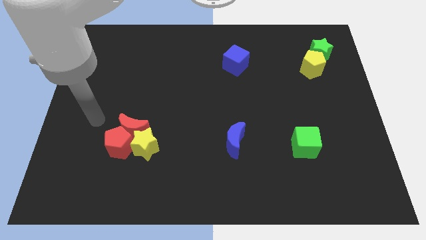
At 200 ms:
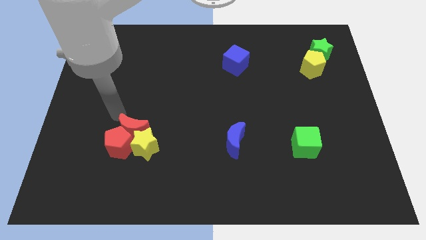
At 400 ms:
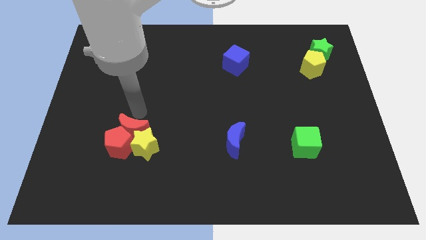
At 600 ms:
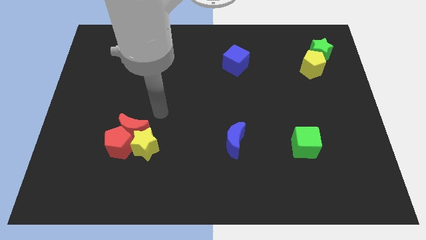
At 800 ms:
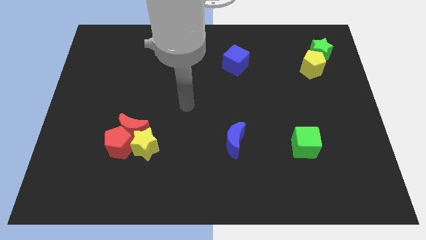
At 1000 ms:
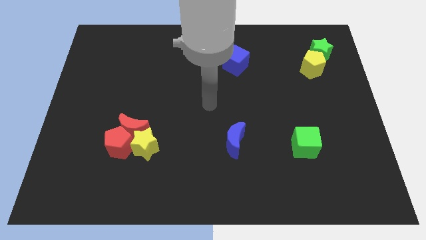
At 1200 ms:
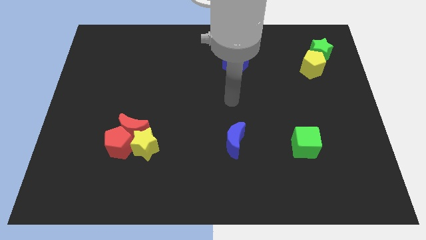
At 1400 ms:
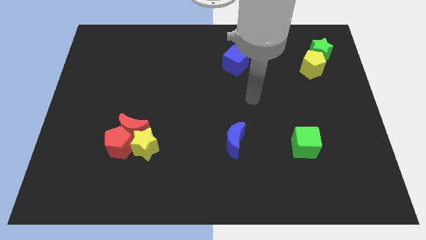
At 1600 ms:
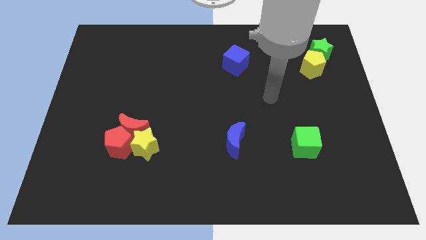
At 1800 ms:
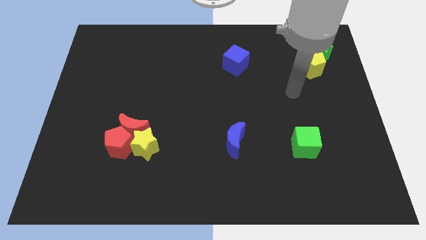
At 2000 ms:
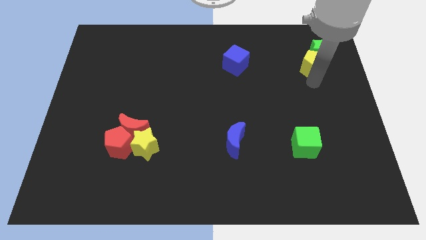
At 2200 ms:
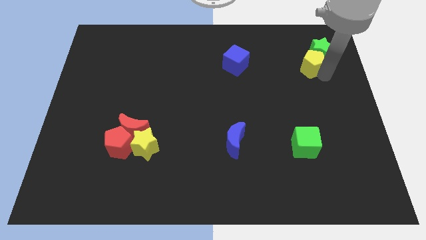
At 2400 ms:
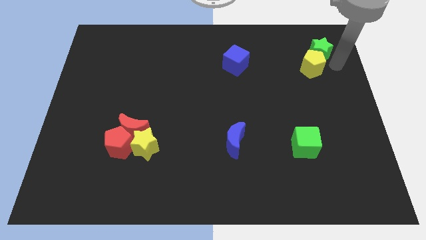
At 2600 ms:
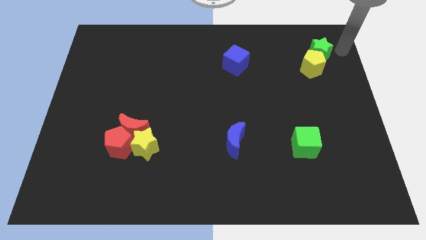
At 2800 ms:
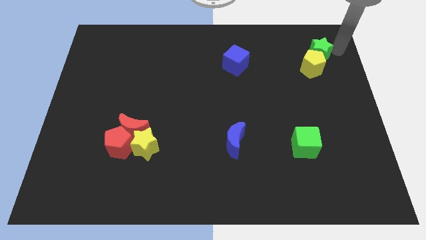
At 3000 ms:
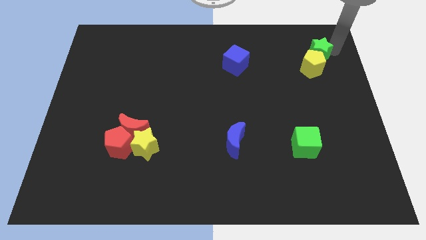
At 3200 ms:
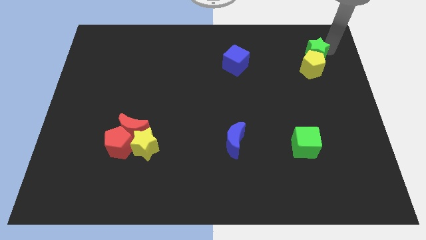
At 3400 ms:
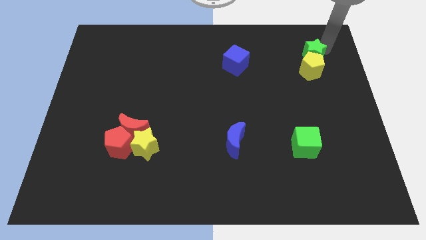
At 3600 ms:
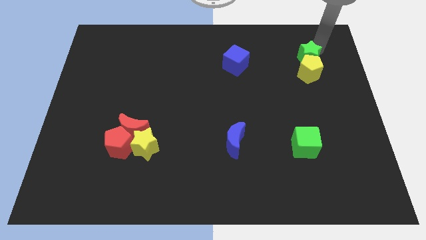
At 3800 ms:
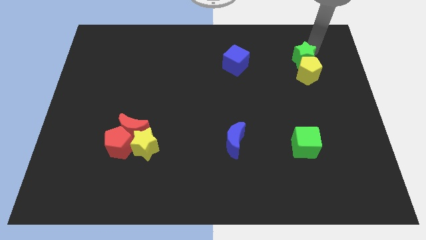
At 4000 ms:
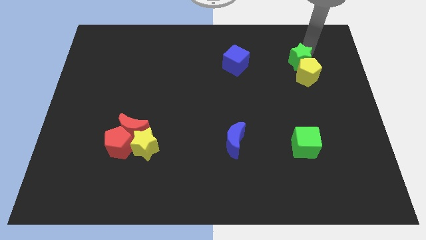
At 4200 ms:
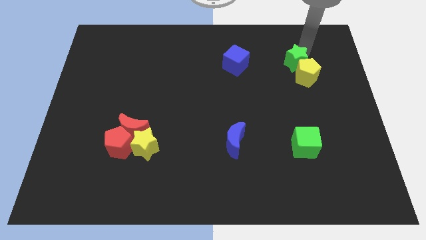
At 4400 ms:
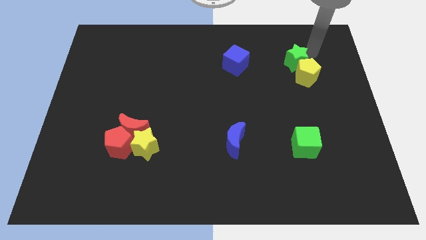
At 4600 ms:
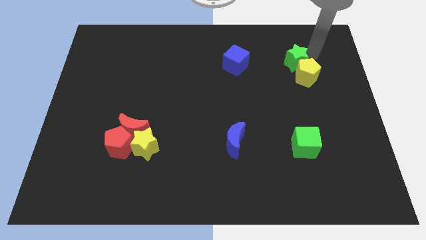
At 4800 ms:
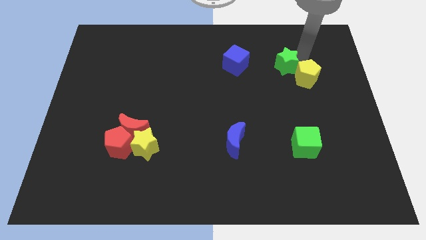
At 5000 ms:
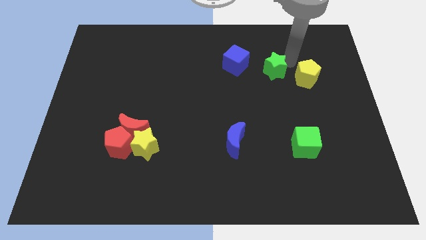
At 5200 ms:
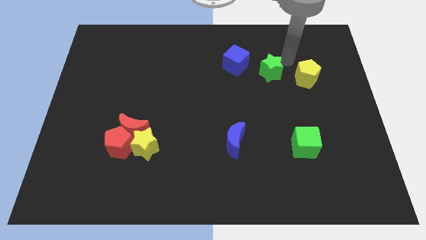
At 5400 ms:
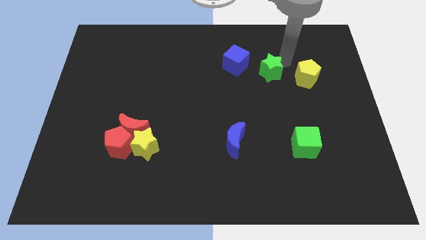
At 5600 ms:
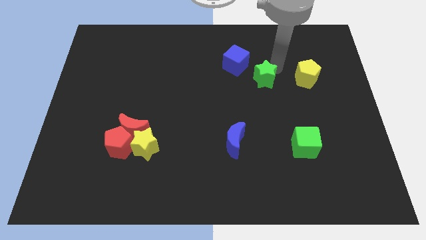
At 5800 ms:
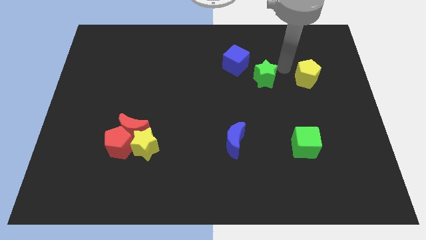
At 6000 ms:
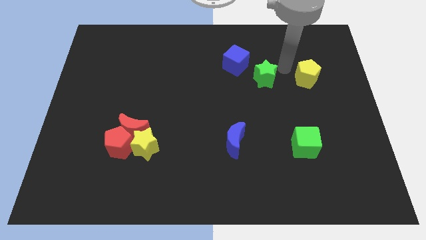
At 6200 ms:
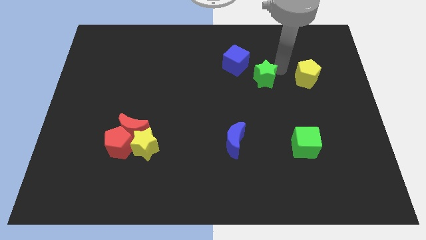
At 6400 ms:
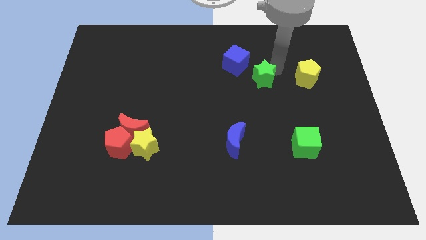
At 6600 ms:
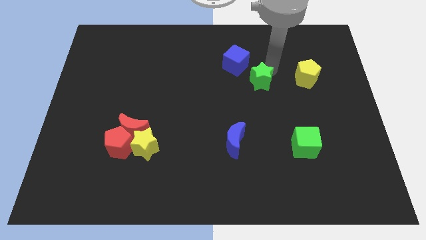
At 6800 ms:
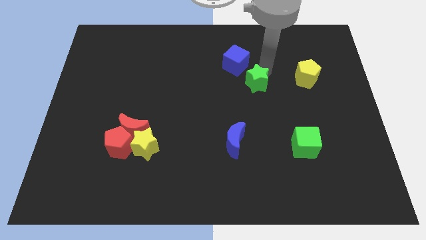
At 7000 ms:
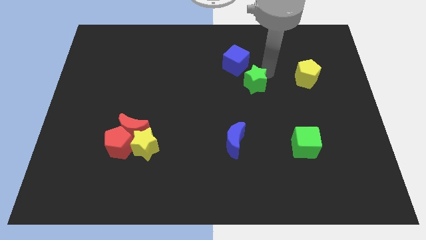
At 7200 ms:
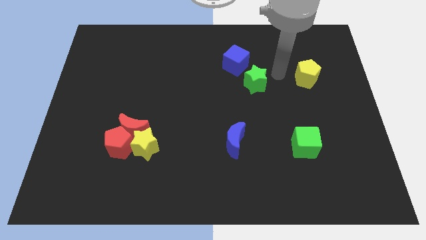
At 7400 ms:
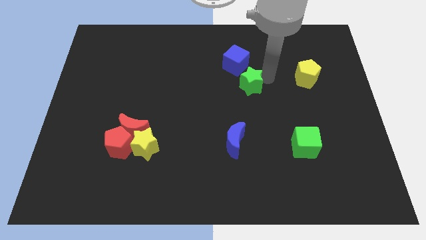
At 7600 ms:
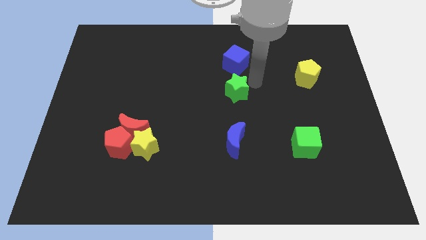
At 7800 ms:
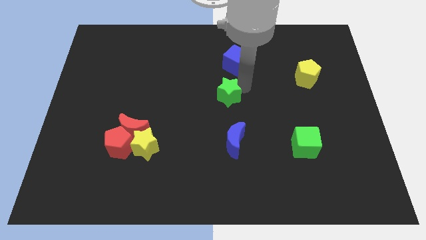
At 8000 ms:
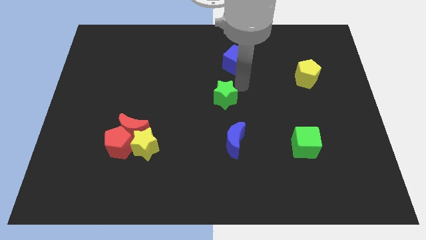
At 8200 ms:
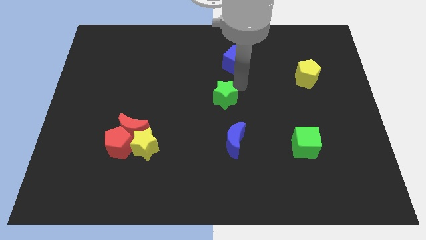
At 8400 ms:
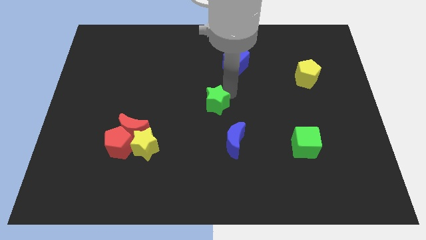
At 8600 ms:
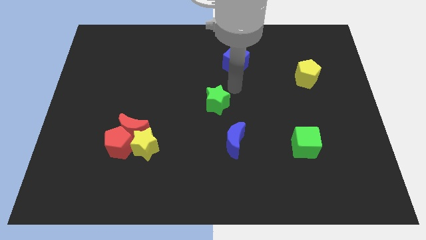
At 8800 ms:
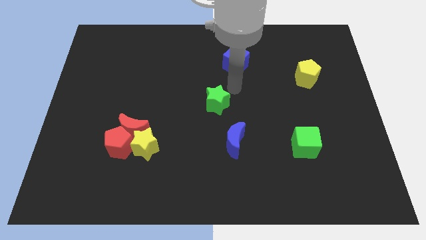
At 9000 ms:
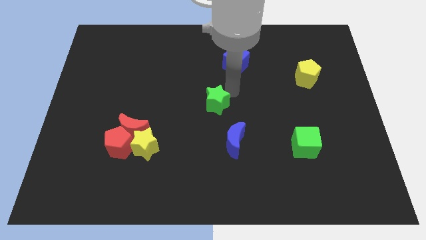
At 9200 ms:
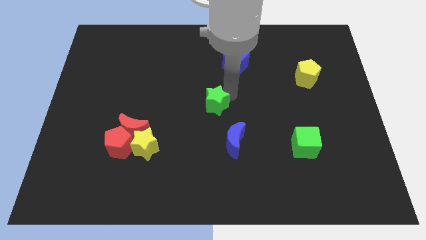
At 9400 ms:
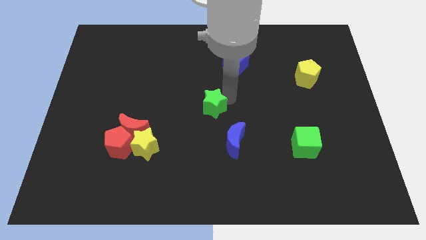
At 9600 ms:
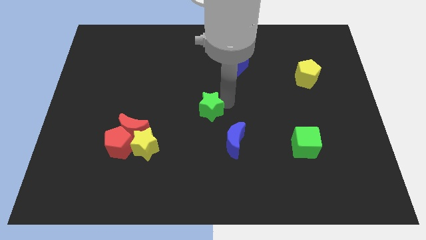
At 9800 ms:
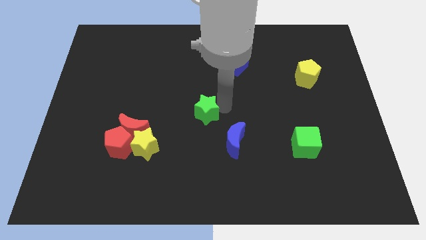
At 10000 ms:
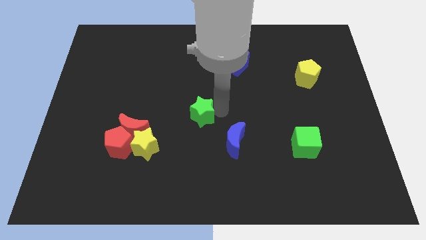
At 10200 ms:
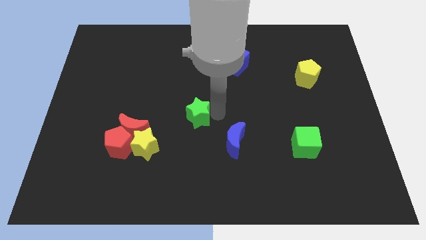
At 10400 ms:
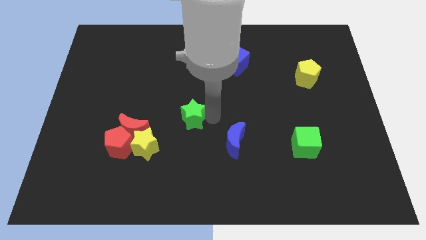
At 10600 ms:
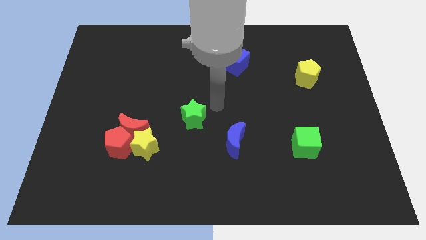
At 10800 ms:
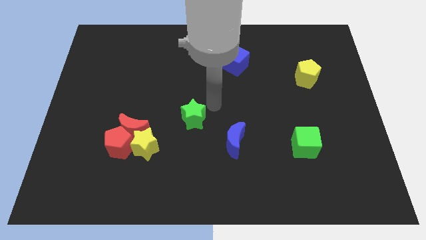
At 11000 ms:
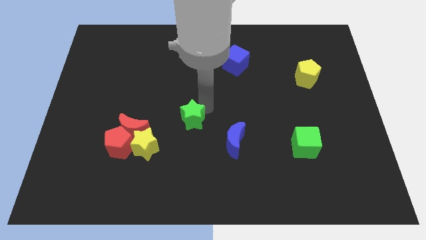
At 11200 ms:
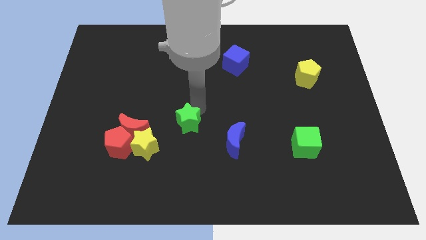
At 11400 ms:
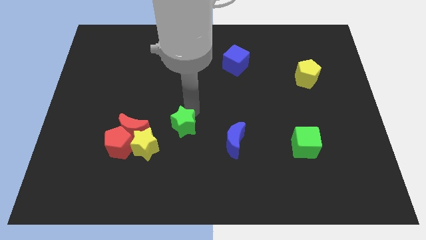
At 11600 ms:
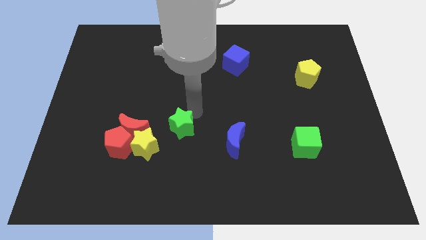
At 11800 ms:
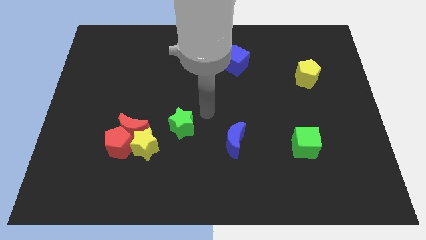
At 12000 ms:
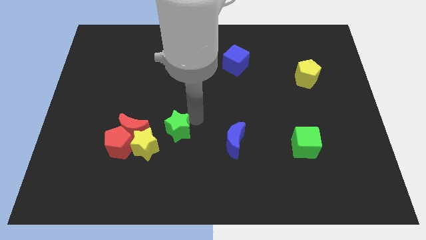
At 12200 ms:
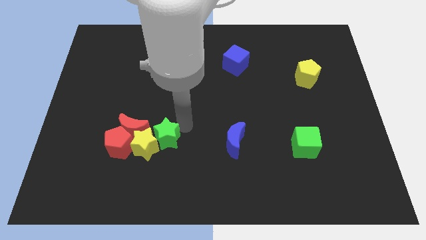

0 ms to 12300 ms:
push the green star to the yellow star
